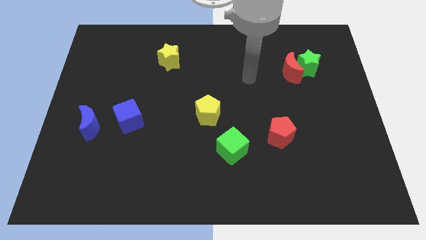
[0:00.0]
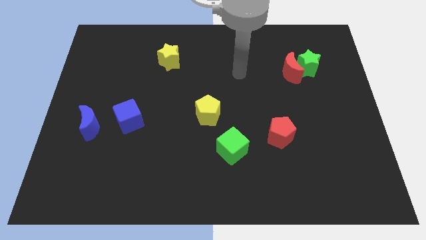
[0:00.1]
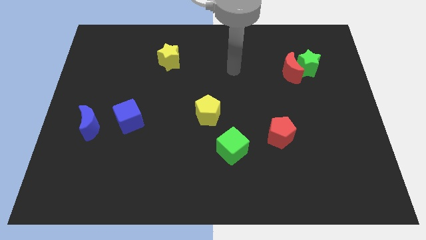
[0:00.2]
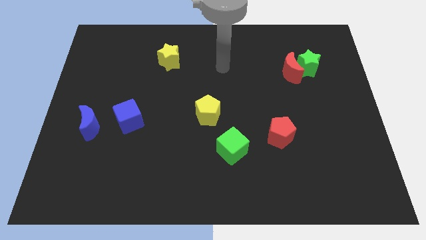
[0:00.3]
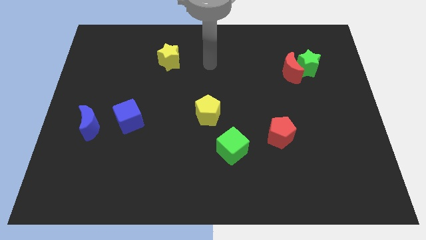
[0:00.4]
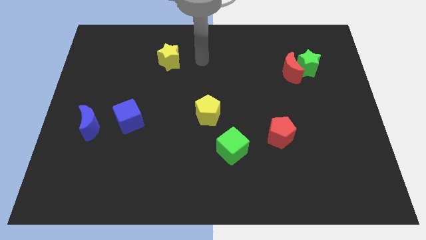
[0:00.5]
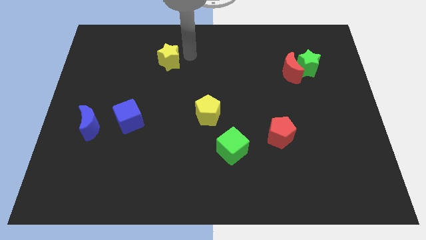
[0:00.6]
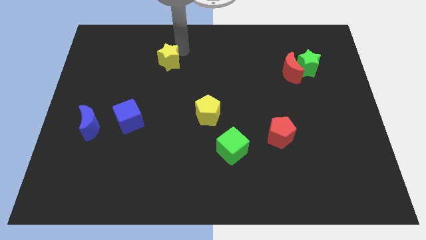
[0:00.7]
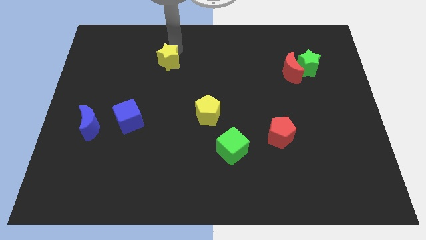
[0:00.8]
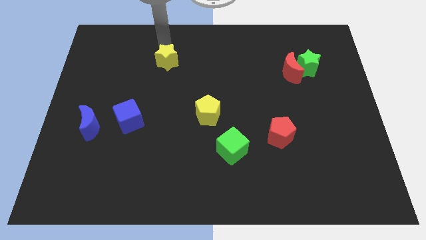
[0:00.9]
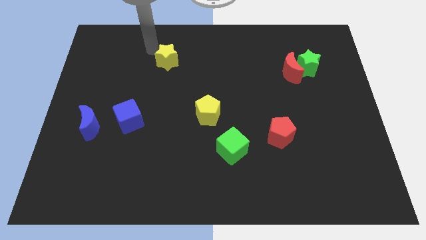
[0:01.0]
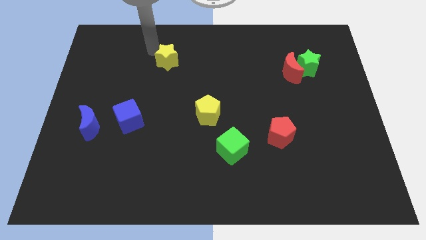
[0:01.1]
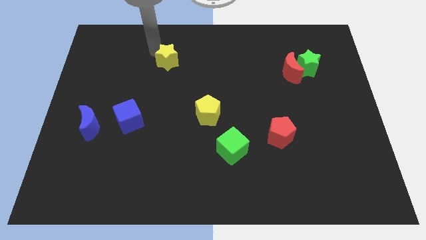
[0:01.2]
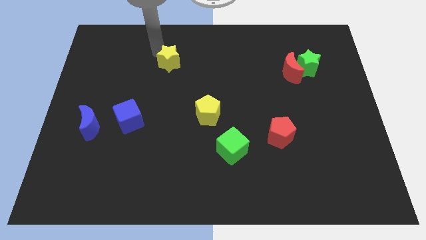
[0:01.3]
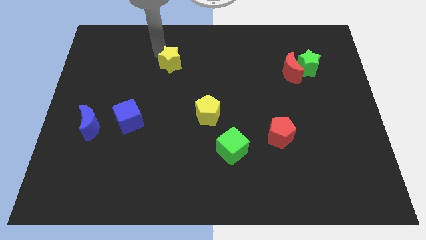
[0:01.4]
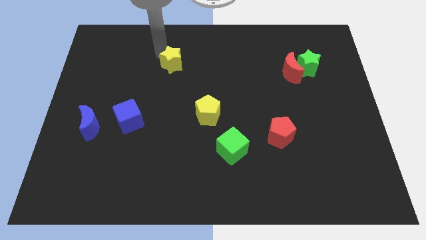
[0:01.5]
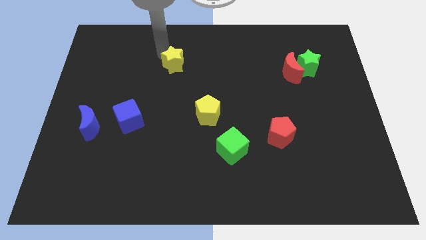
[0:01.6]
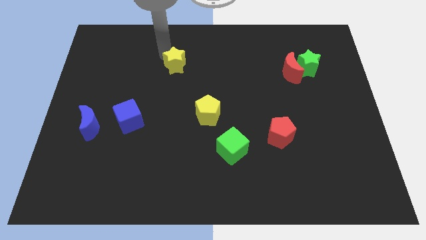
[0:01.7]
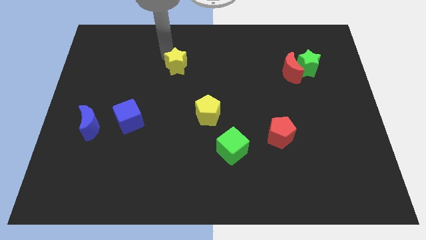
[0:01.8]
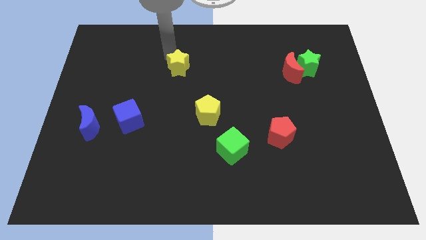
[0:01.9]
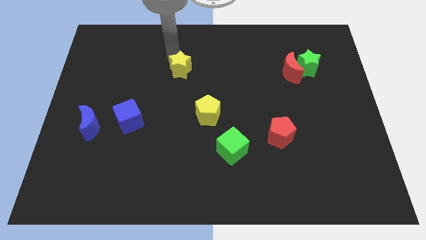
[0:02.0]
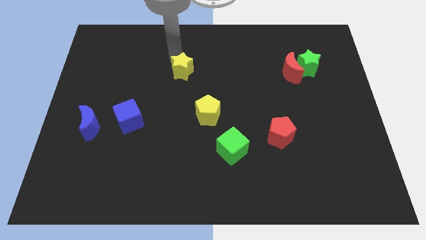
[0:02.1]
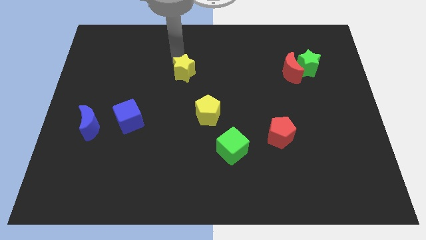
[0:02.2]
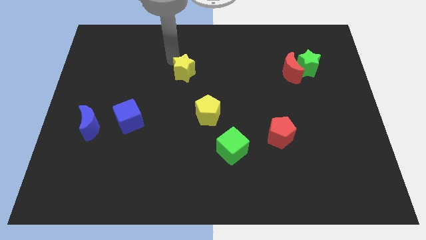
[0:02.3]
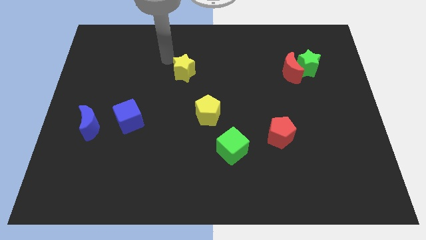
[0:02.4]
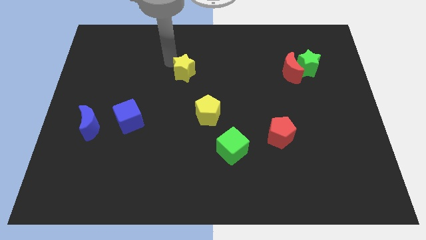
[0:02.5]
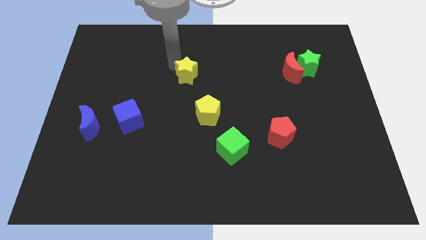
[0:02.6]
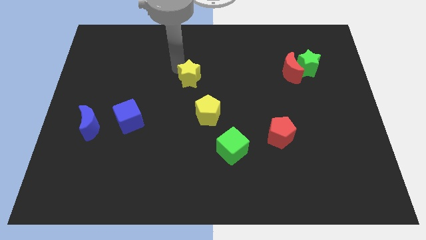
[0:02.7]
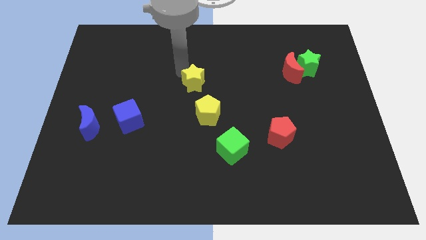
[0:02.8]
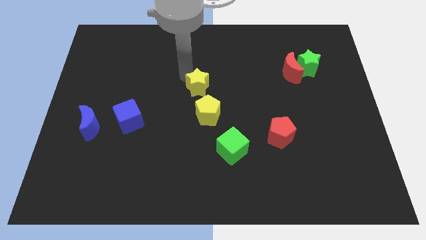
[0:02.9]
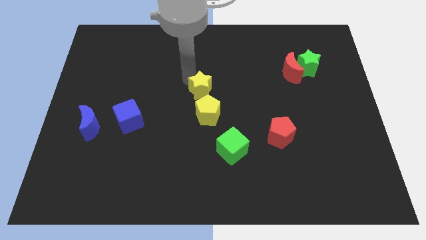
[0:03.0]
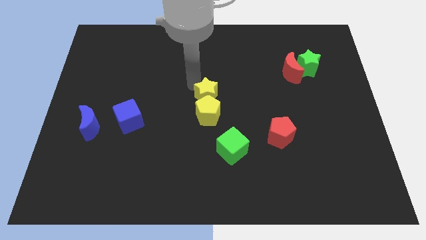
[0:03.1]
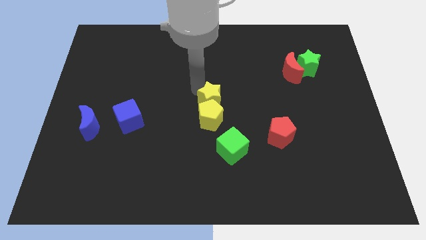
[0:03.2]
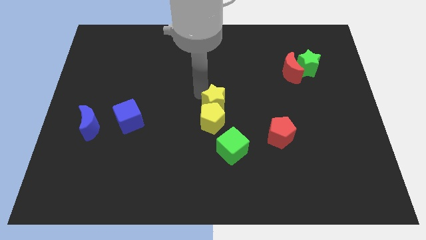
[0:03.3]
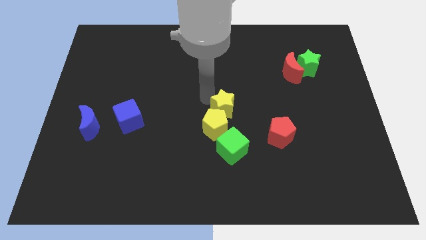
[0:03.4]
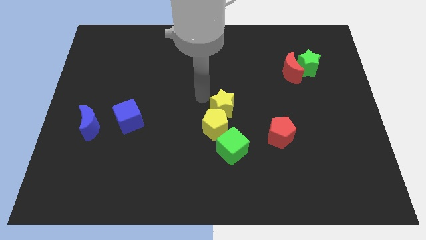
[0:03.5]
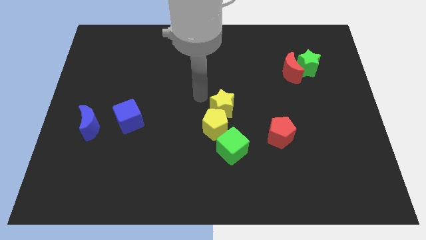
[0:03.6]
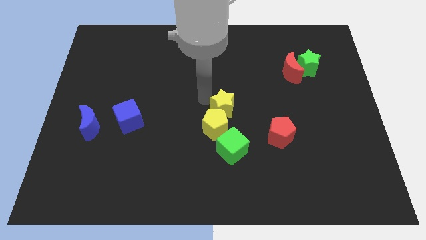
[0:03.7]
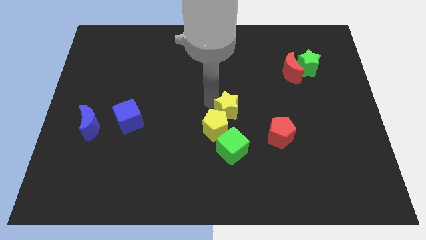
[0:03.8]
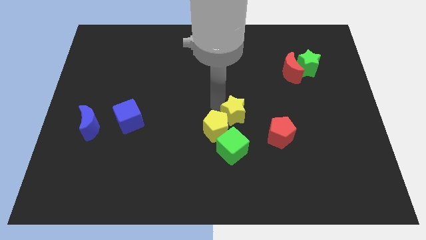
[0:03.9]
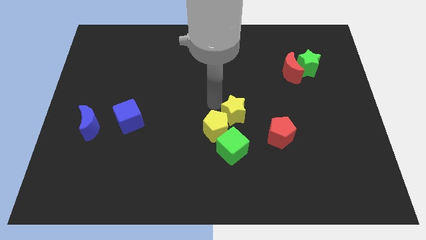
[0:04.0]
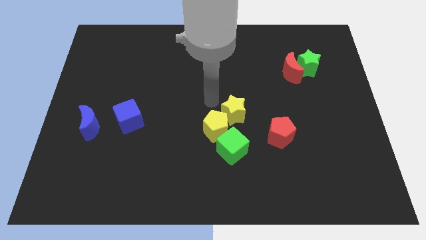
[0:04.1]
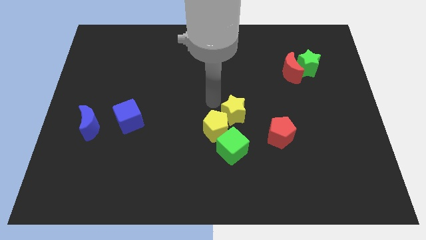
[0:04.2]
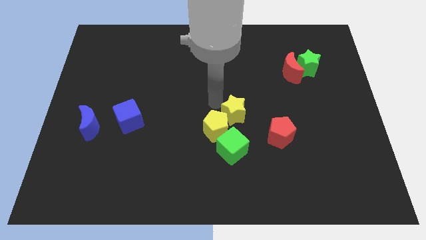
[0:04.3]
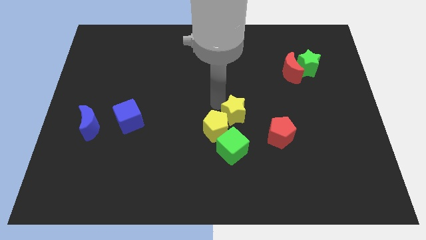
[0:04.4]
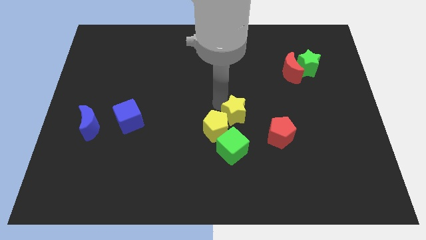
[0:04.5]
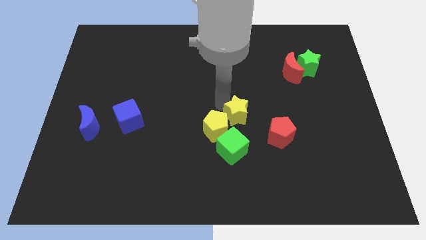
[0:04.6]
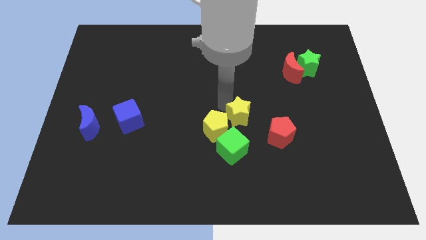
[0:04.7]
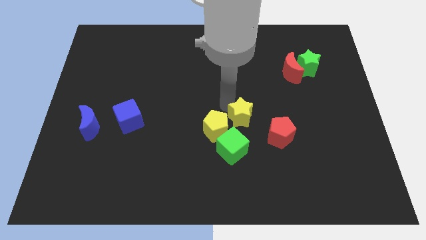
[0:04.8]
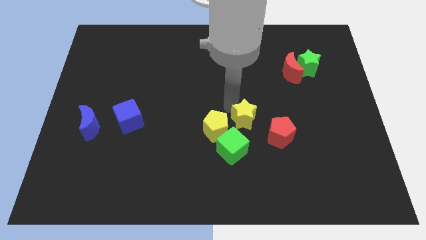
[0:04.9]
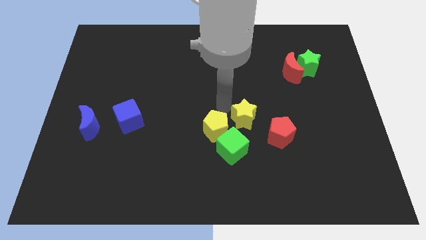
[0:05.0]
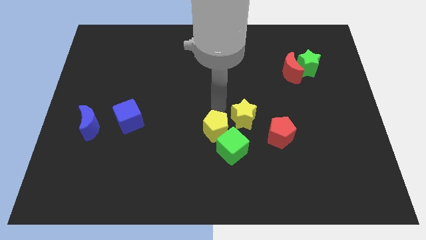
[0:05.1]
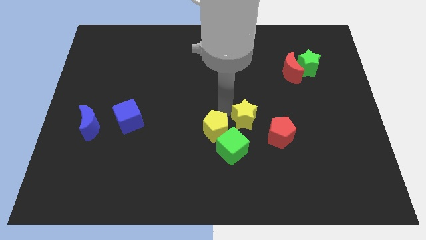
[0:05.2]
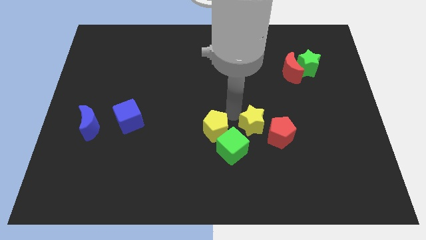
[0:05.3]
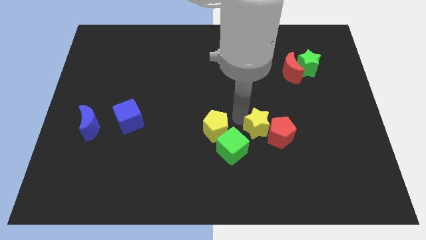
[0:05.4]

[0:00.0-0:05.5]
move the yellow star close to the red pentagon

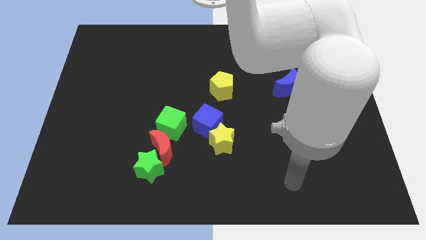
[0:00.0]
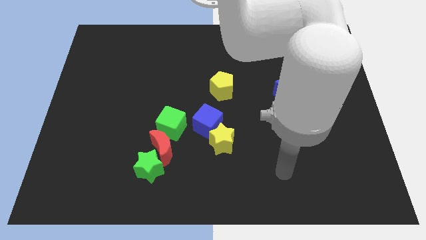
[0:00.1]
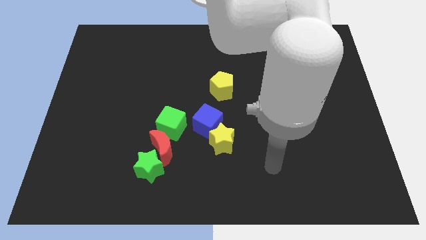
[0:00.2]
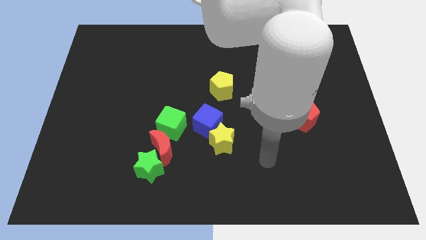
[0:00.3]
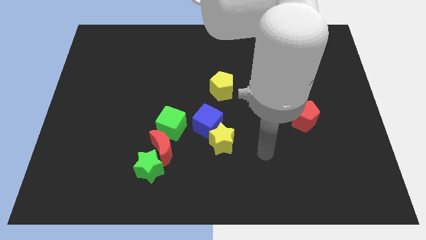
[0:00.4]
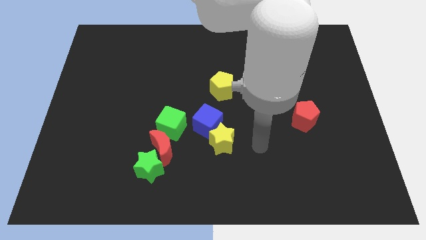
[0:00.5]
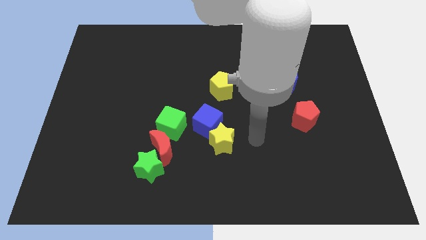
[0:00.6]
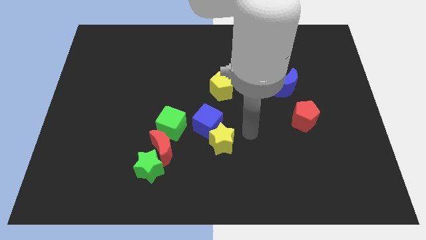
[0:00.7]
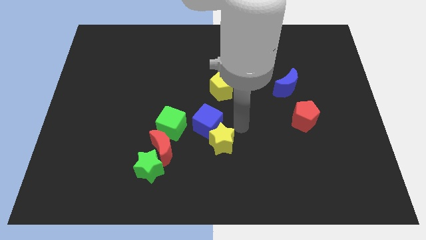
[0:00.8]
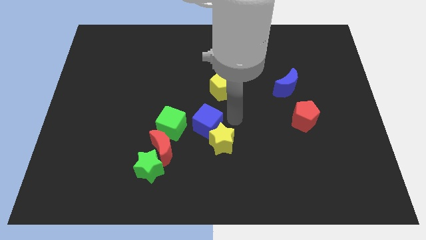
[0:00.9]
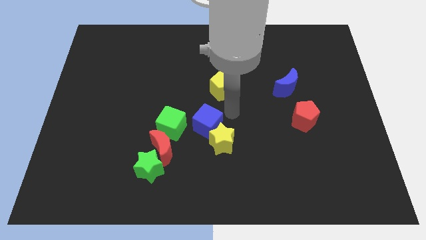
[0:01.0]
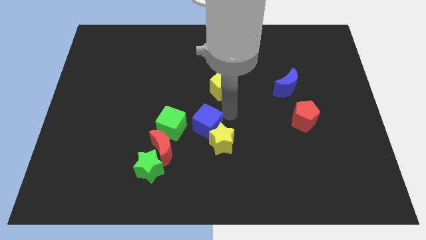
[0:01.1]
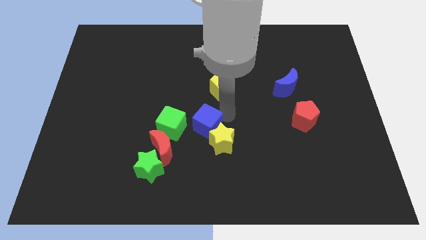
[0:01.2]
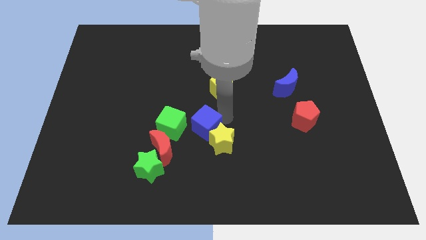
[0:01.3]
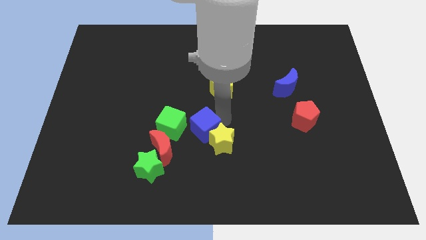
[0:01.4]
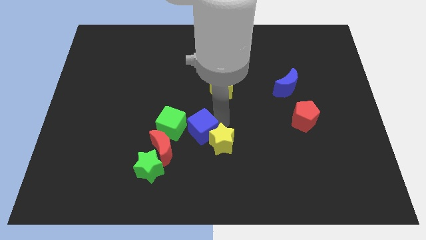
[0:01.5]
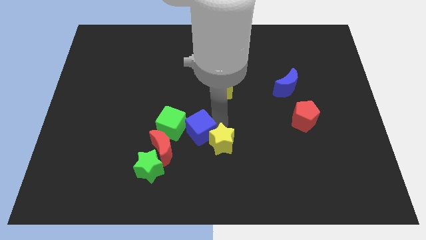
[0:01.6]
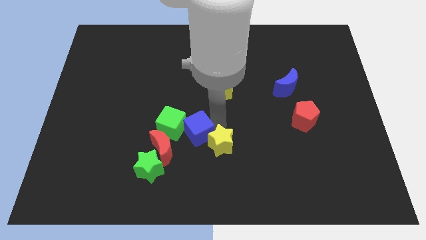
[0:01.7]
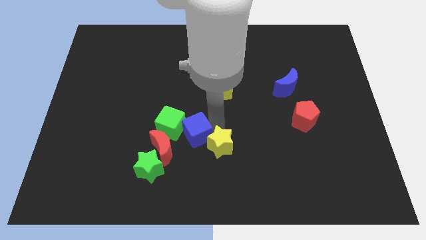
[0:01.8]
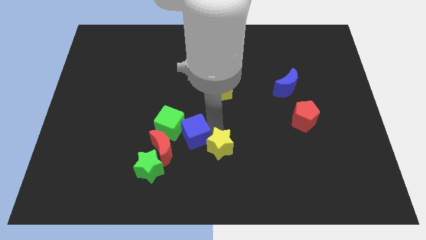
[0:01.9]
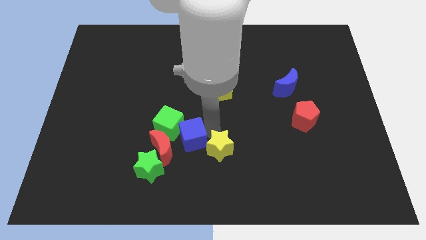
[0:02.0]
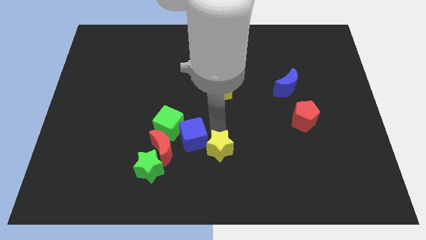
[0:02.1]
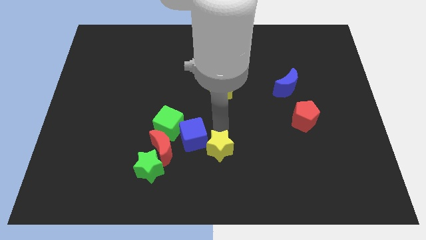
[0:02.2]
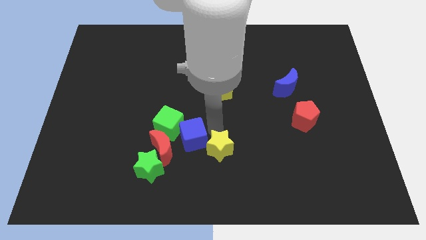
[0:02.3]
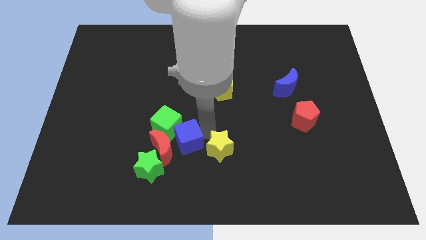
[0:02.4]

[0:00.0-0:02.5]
put the blue cube close to the red moon
